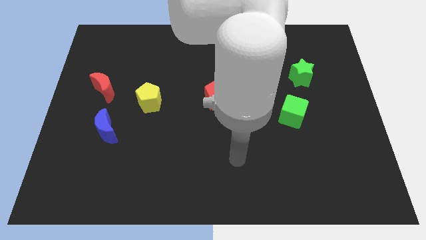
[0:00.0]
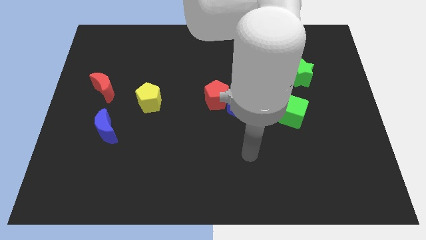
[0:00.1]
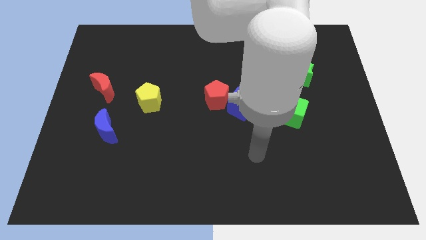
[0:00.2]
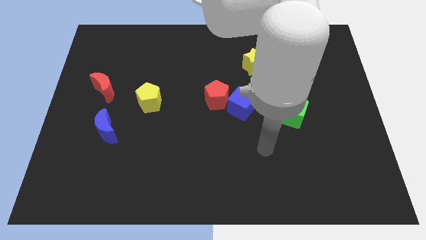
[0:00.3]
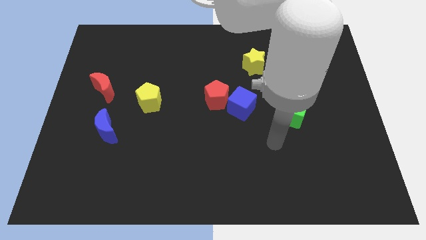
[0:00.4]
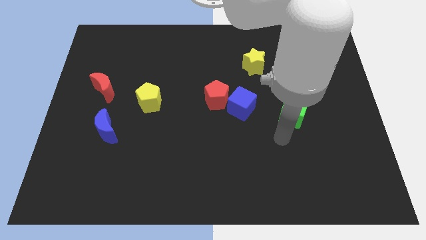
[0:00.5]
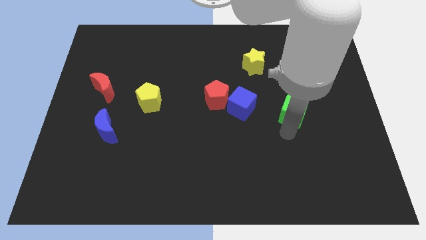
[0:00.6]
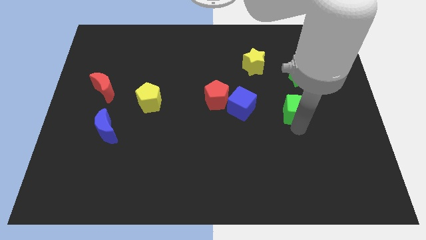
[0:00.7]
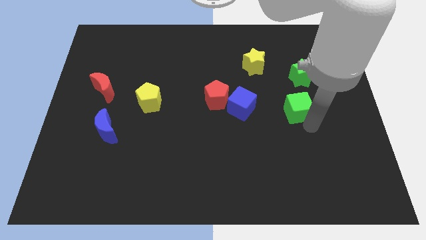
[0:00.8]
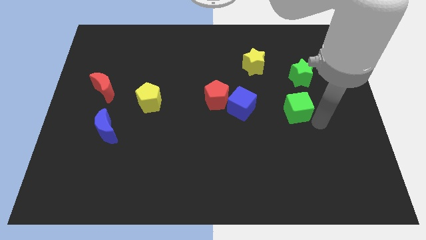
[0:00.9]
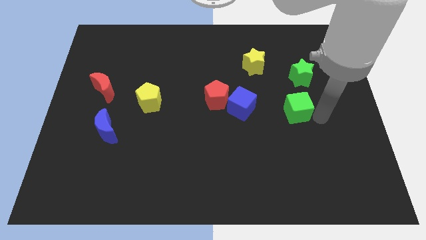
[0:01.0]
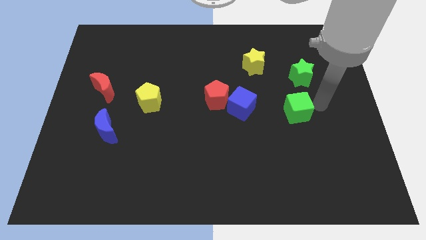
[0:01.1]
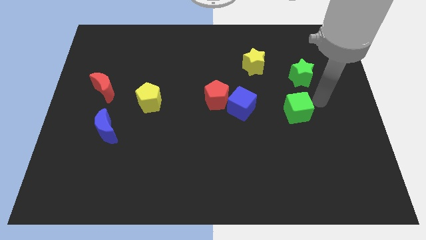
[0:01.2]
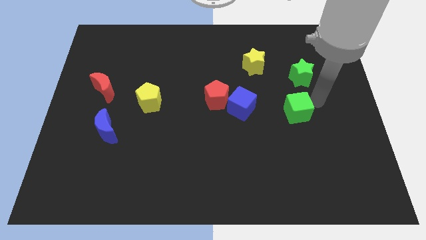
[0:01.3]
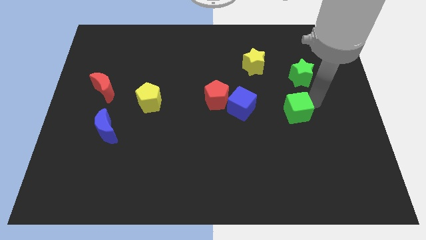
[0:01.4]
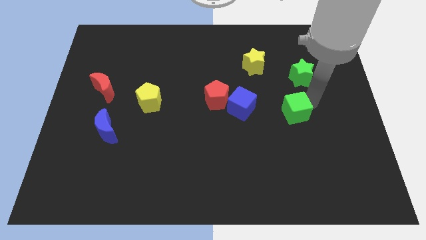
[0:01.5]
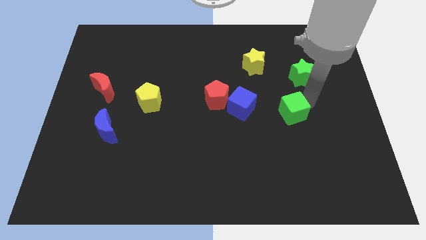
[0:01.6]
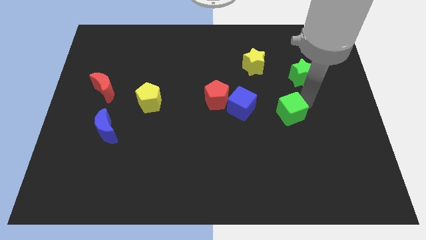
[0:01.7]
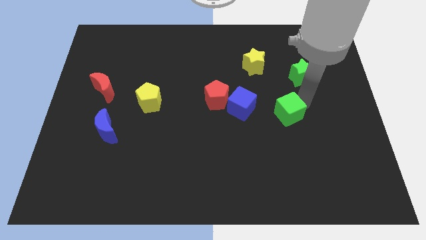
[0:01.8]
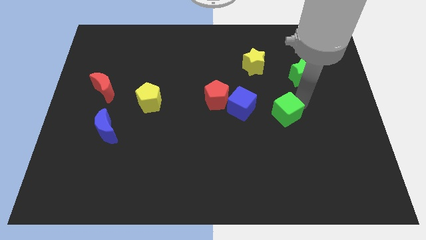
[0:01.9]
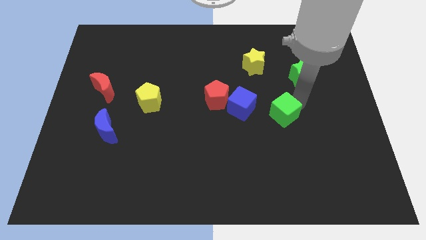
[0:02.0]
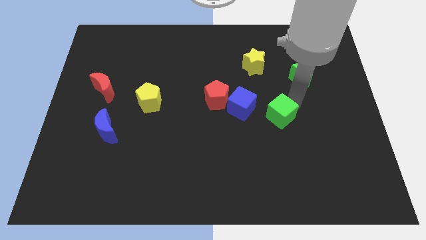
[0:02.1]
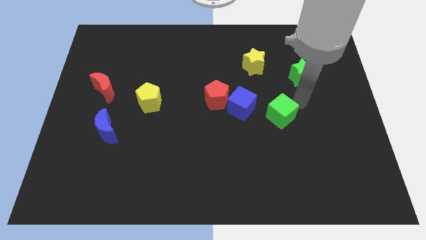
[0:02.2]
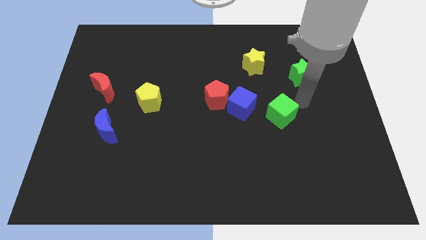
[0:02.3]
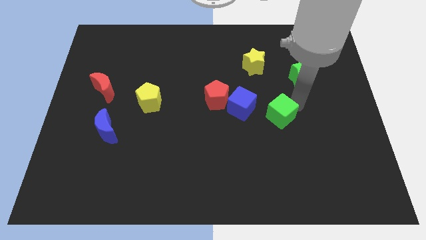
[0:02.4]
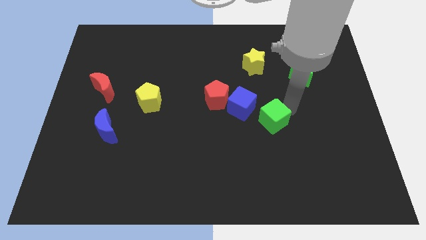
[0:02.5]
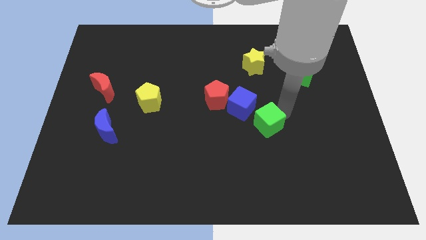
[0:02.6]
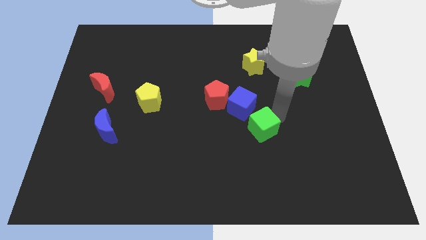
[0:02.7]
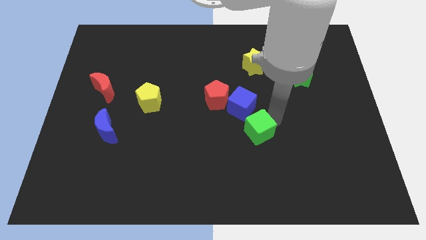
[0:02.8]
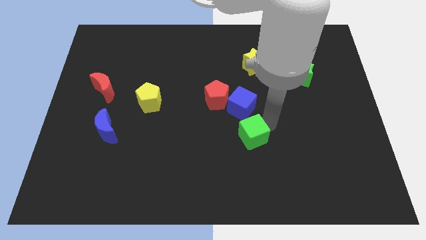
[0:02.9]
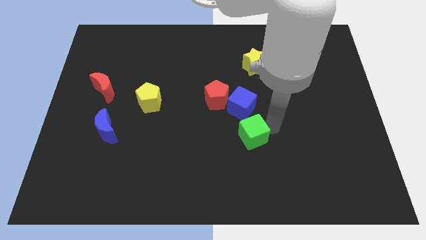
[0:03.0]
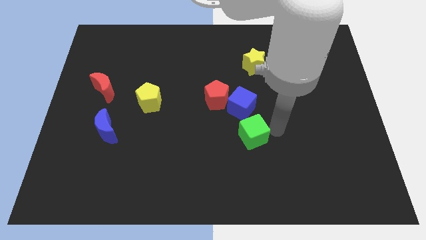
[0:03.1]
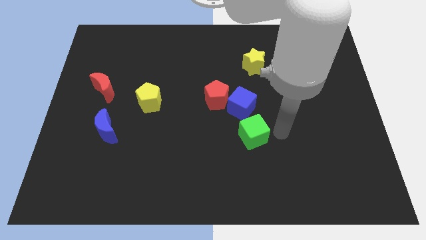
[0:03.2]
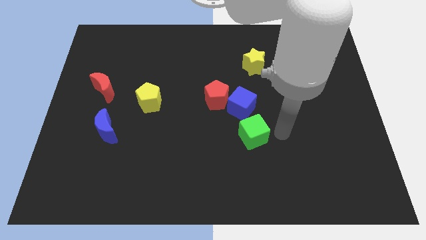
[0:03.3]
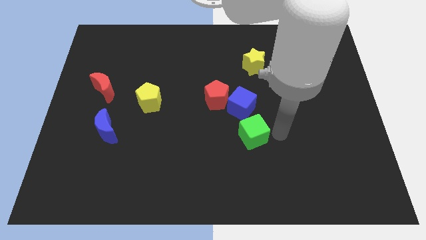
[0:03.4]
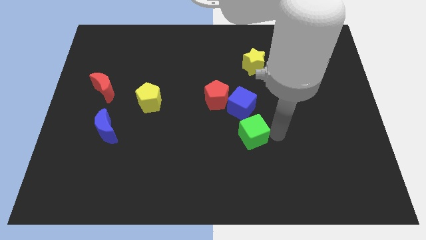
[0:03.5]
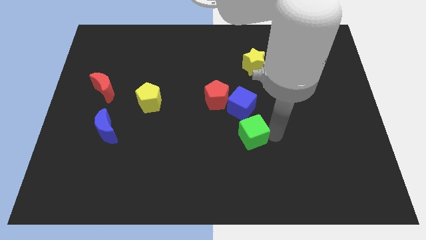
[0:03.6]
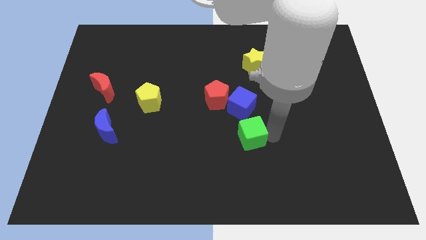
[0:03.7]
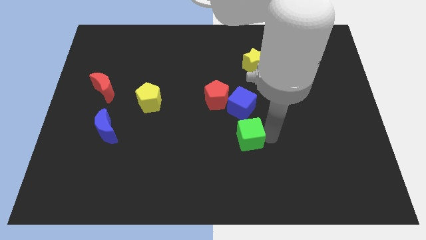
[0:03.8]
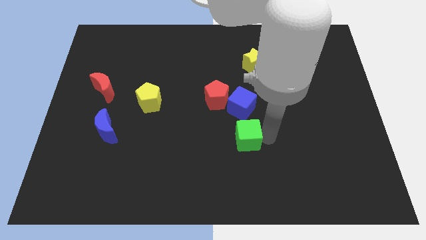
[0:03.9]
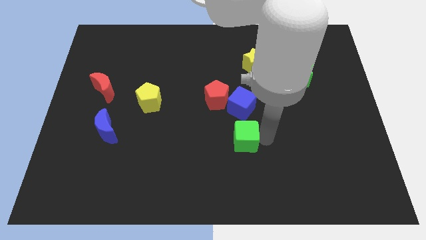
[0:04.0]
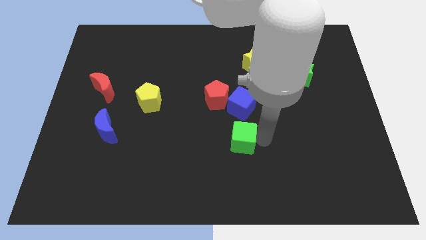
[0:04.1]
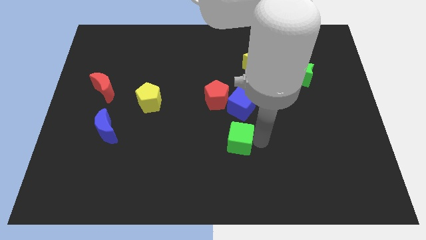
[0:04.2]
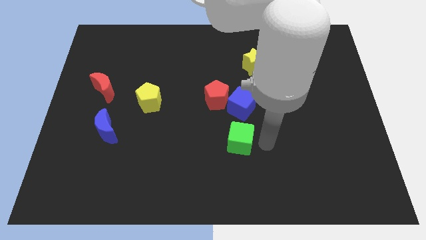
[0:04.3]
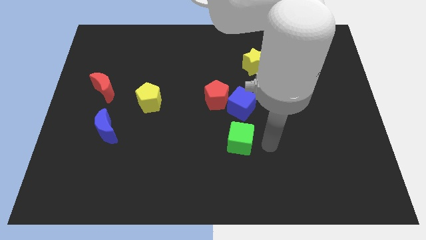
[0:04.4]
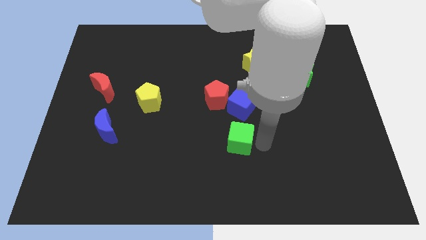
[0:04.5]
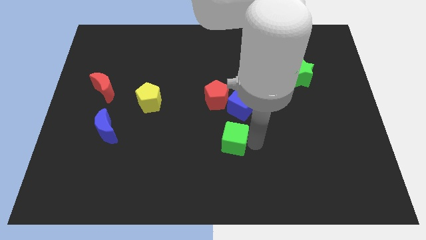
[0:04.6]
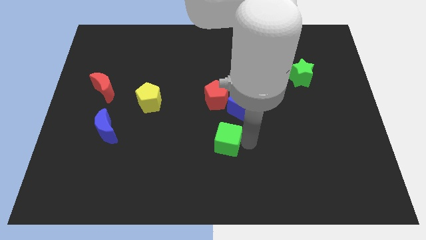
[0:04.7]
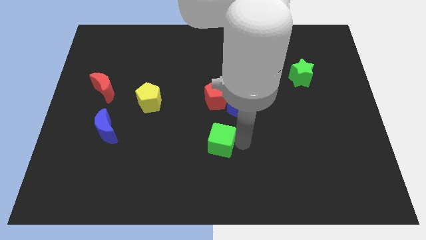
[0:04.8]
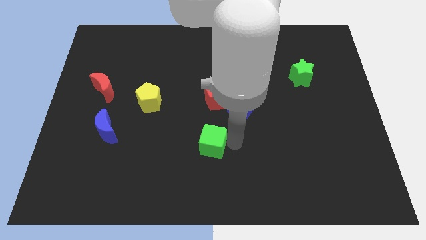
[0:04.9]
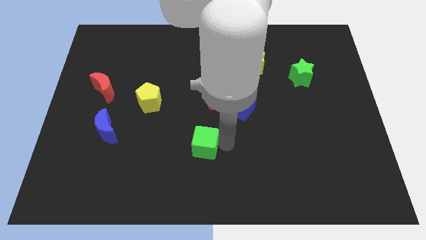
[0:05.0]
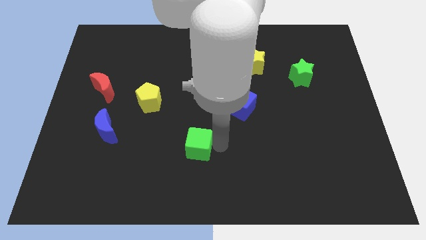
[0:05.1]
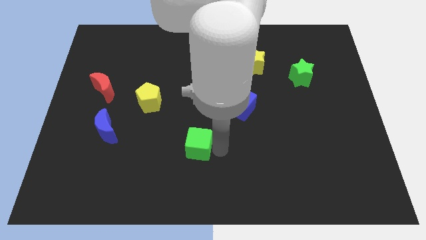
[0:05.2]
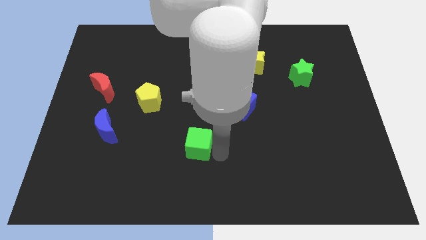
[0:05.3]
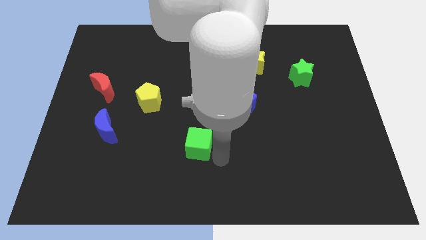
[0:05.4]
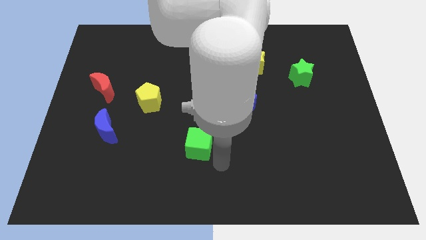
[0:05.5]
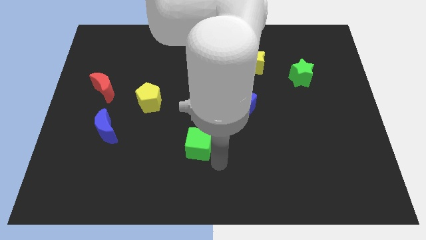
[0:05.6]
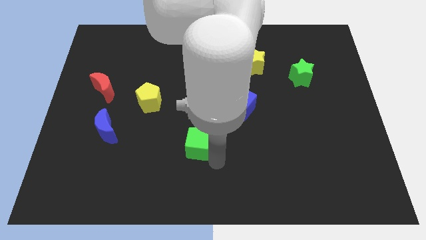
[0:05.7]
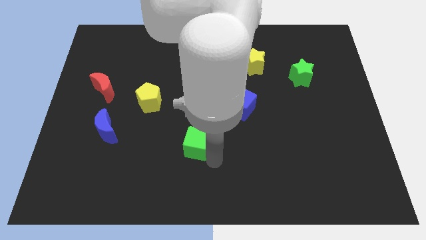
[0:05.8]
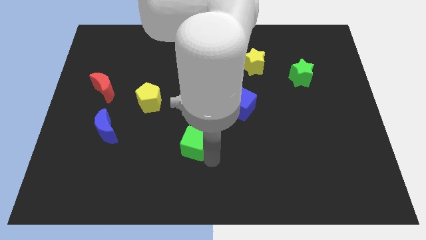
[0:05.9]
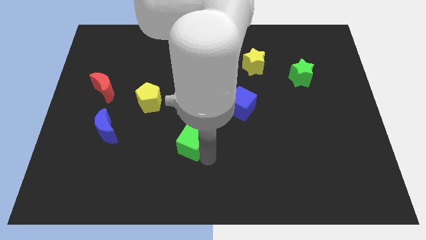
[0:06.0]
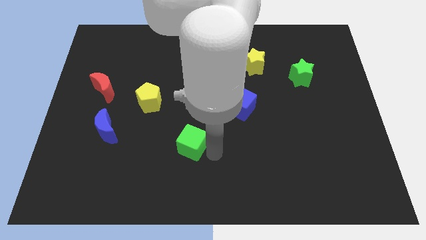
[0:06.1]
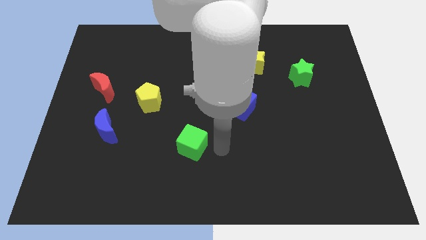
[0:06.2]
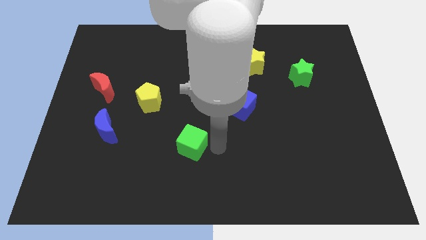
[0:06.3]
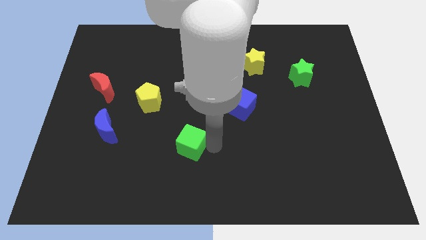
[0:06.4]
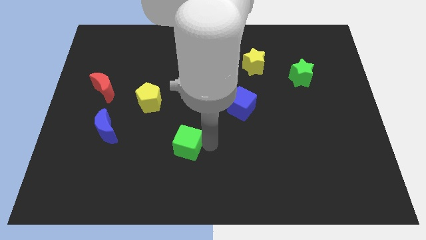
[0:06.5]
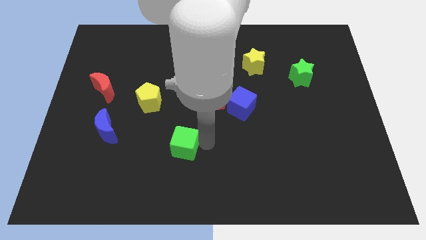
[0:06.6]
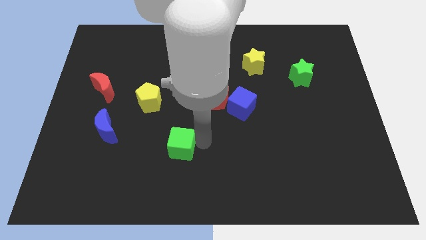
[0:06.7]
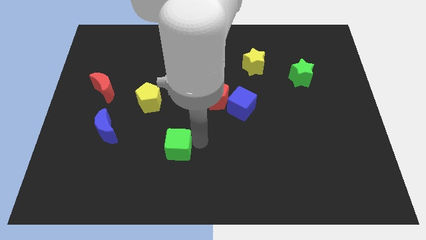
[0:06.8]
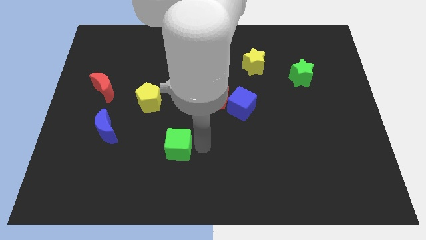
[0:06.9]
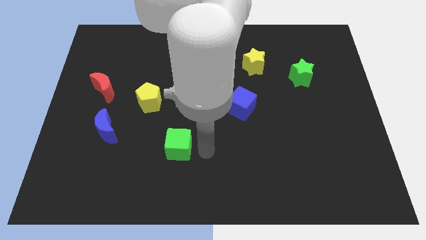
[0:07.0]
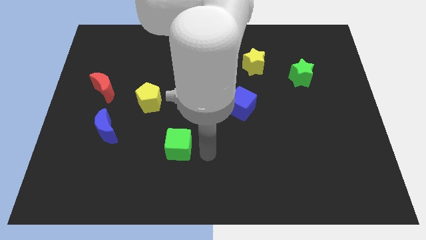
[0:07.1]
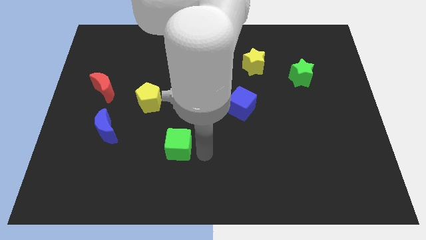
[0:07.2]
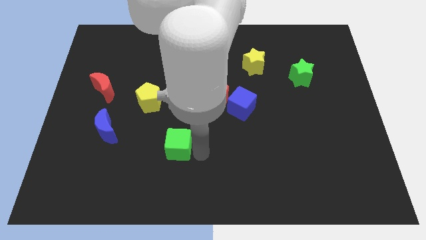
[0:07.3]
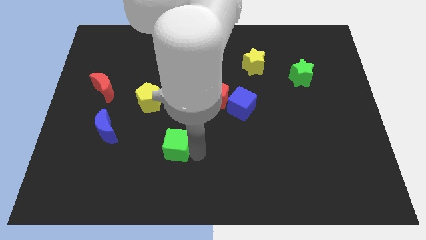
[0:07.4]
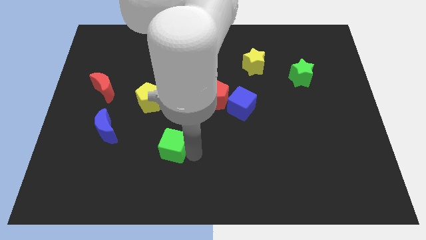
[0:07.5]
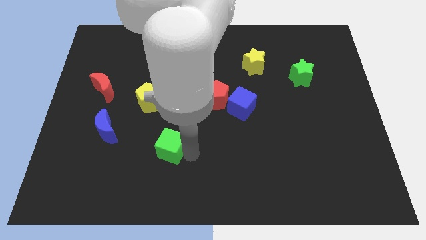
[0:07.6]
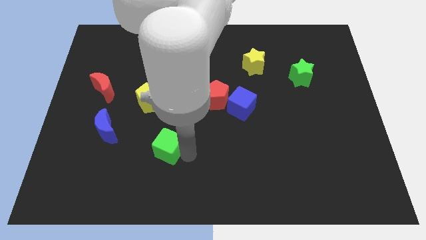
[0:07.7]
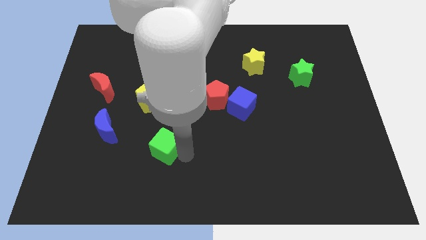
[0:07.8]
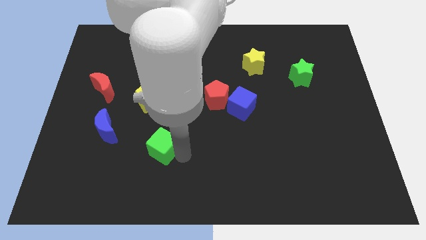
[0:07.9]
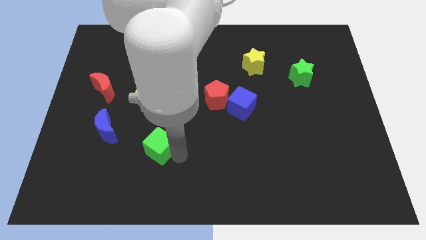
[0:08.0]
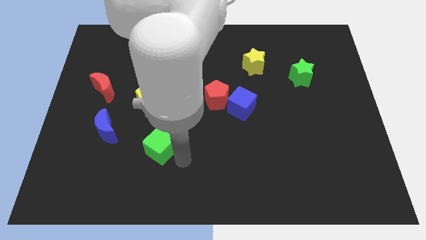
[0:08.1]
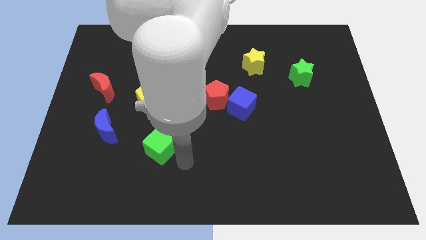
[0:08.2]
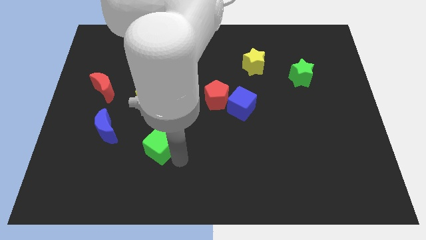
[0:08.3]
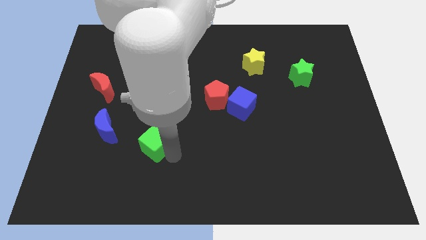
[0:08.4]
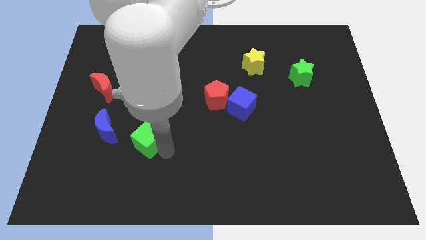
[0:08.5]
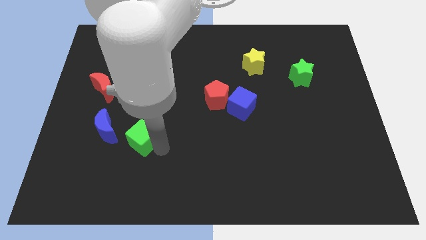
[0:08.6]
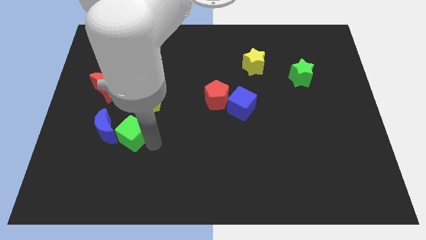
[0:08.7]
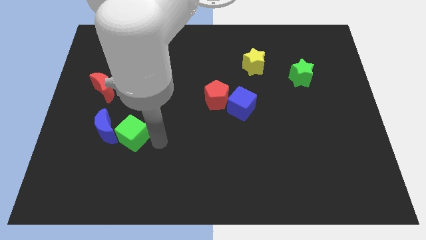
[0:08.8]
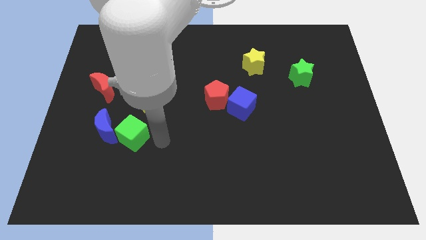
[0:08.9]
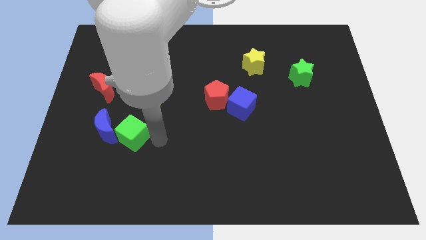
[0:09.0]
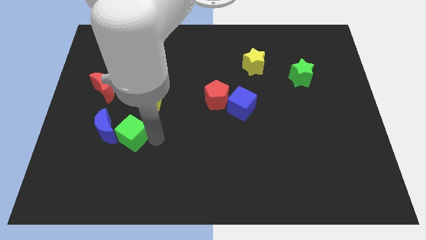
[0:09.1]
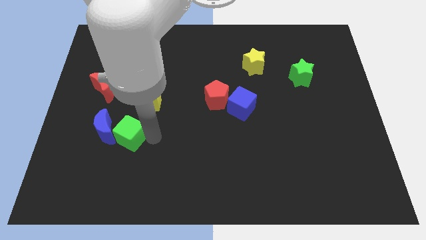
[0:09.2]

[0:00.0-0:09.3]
push the green cube close to the blue moon
